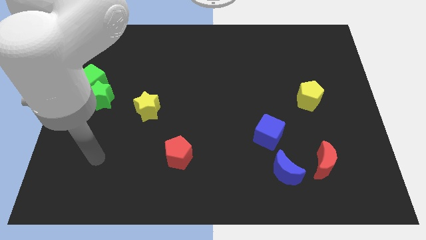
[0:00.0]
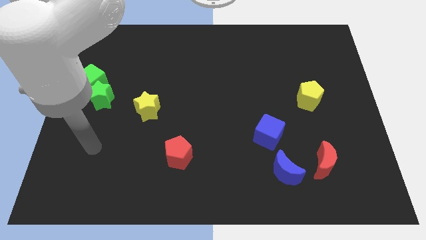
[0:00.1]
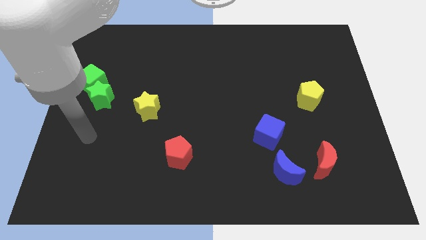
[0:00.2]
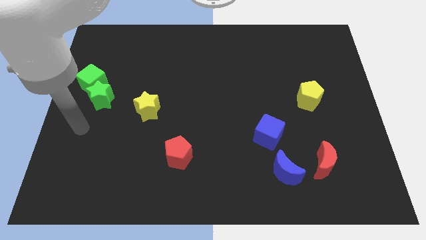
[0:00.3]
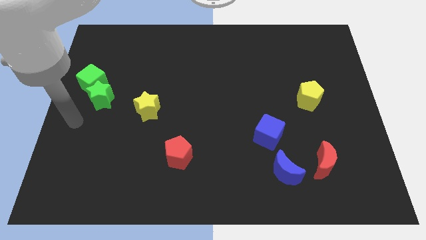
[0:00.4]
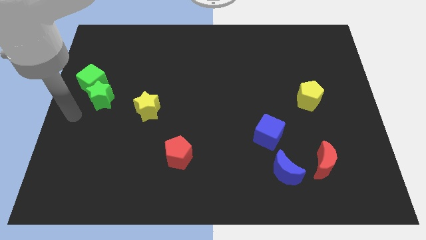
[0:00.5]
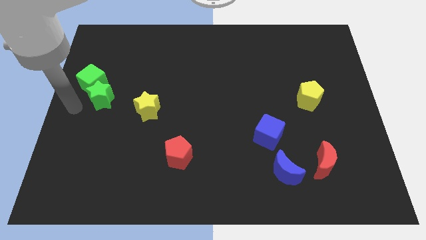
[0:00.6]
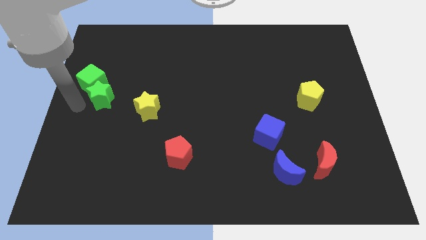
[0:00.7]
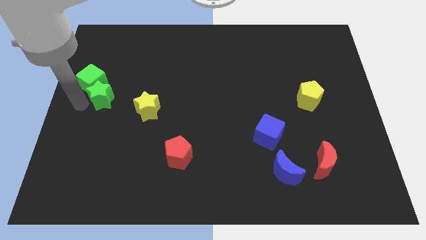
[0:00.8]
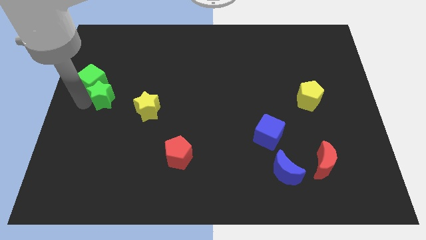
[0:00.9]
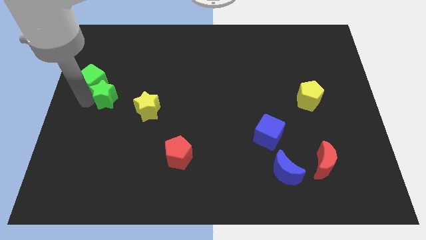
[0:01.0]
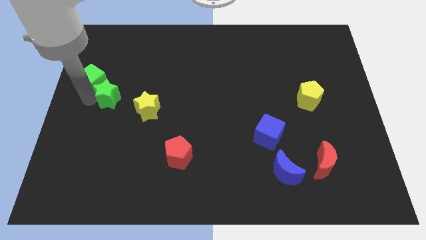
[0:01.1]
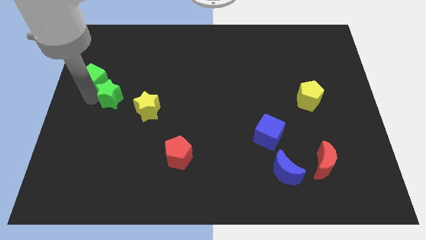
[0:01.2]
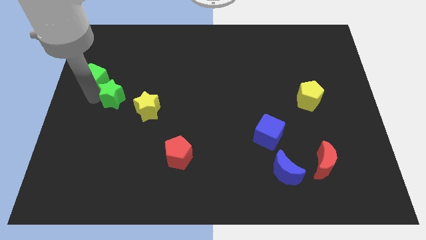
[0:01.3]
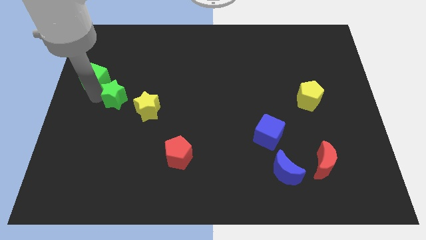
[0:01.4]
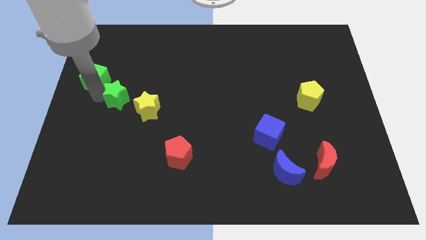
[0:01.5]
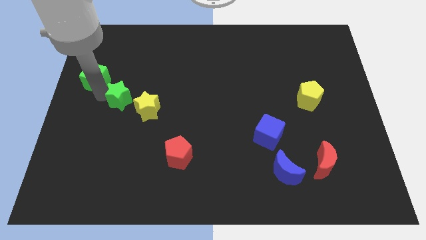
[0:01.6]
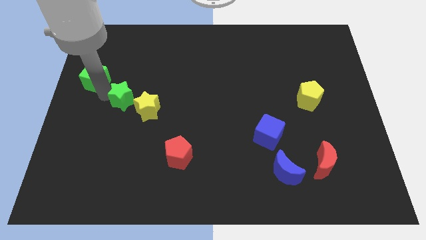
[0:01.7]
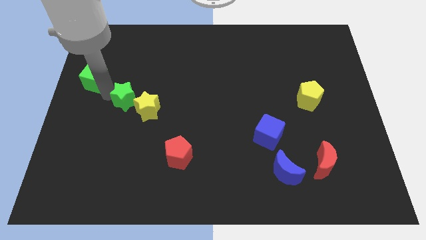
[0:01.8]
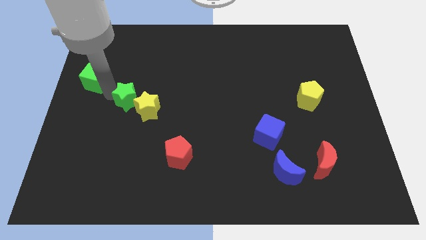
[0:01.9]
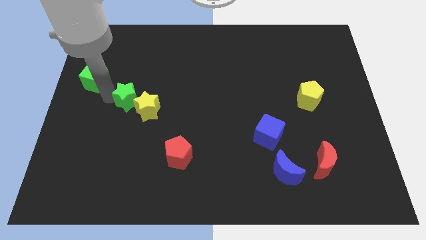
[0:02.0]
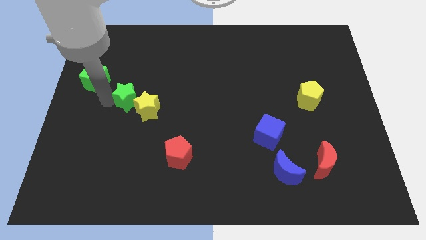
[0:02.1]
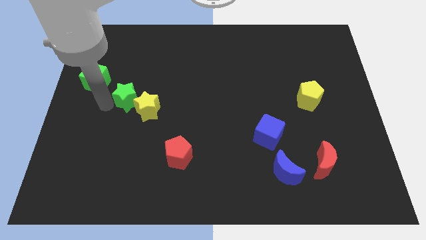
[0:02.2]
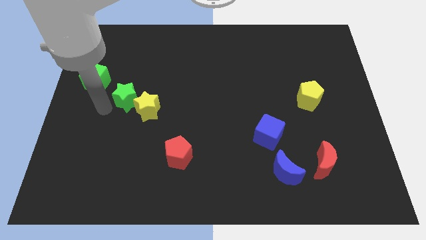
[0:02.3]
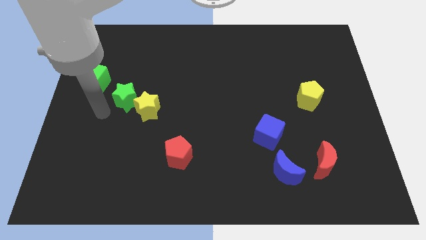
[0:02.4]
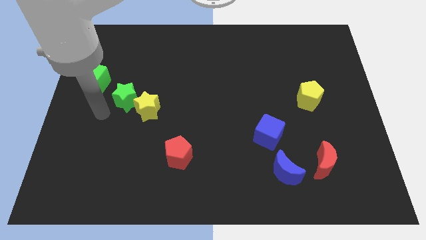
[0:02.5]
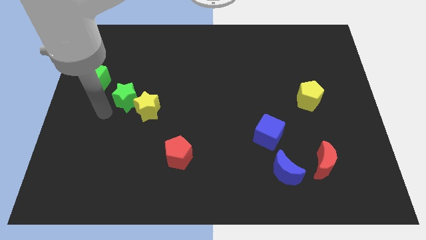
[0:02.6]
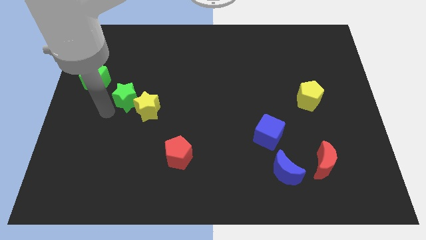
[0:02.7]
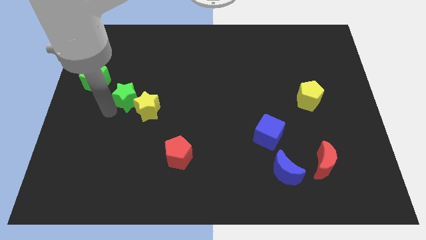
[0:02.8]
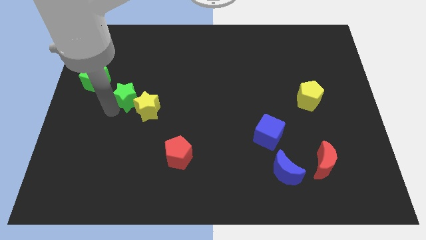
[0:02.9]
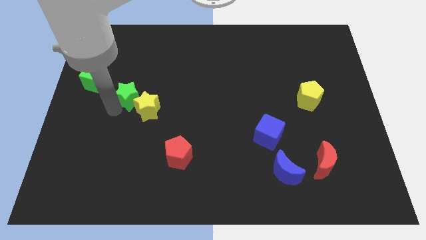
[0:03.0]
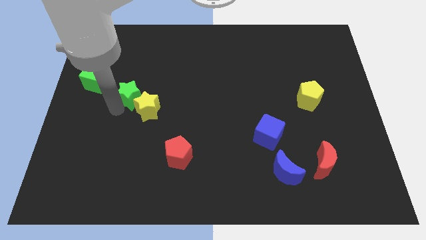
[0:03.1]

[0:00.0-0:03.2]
slightly push the green star right

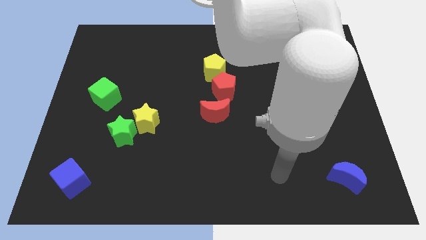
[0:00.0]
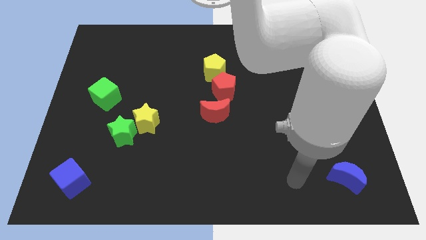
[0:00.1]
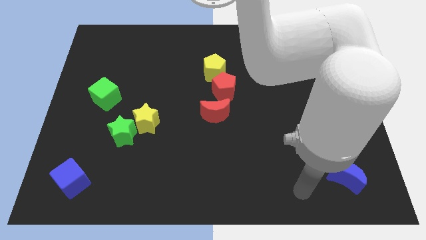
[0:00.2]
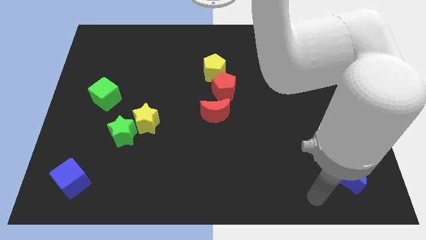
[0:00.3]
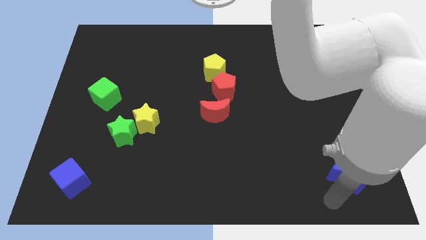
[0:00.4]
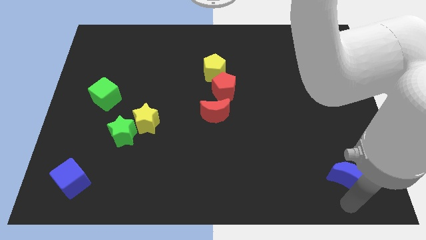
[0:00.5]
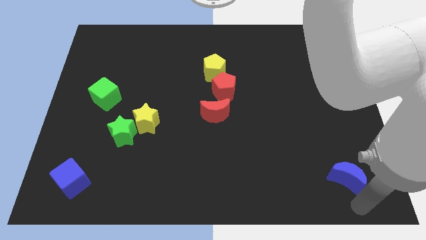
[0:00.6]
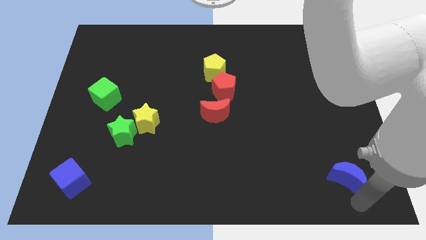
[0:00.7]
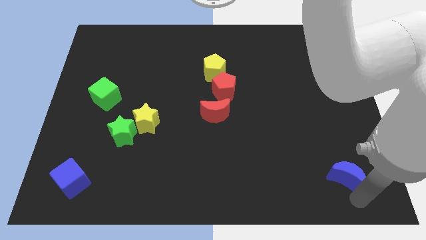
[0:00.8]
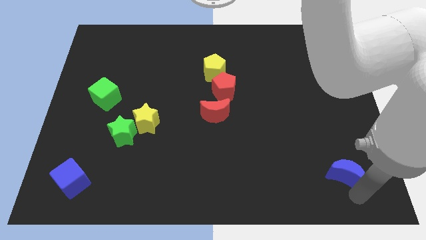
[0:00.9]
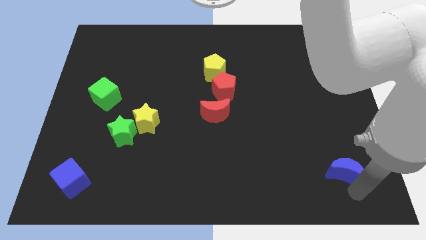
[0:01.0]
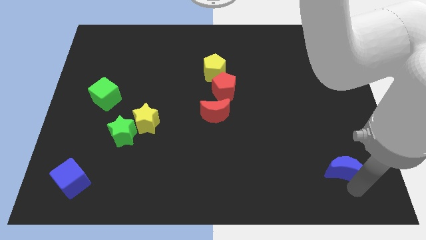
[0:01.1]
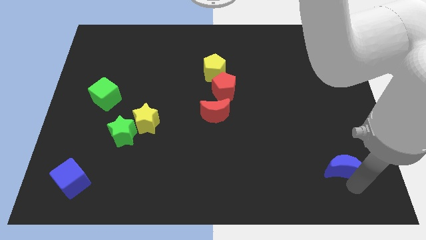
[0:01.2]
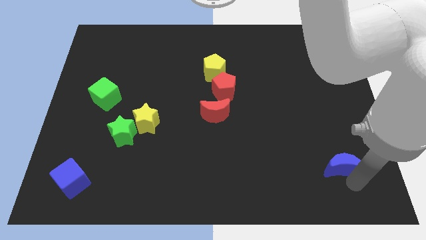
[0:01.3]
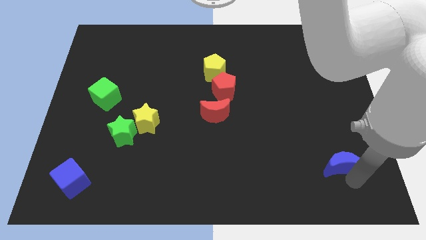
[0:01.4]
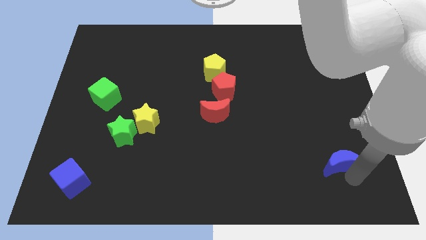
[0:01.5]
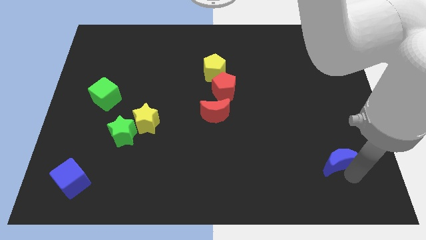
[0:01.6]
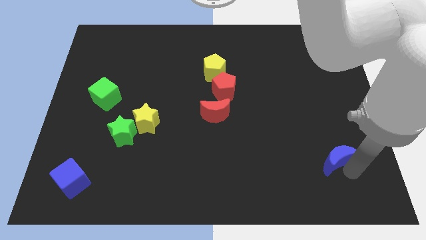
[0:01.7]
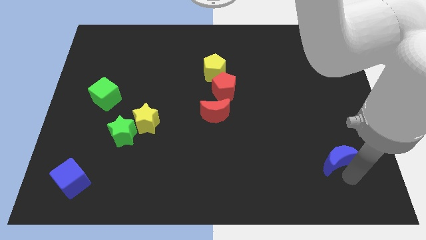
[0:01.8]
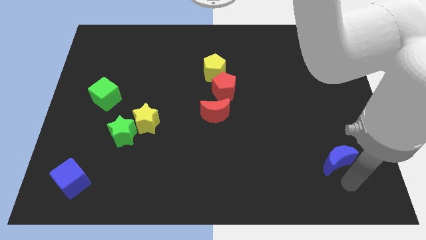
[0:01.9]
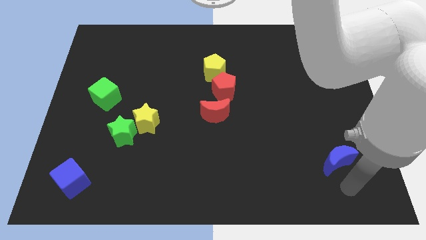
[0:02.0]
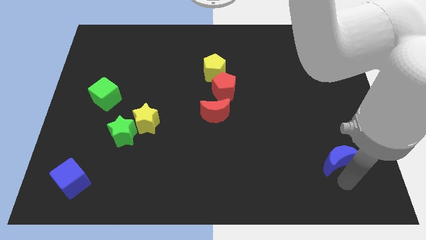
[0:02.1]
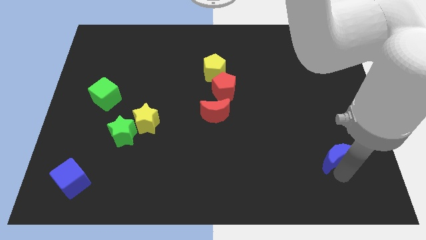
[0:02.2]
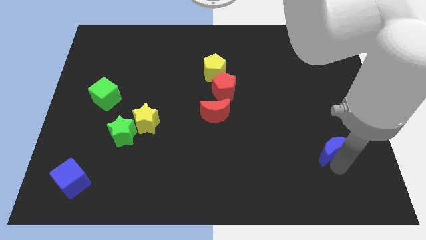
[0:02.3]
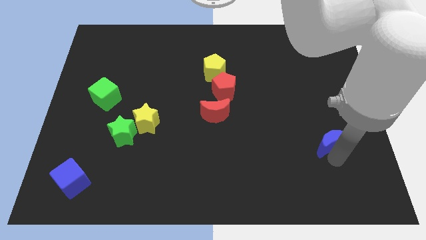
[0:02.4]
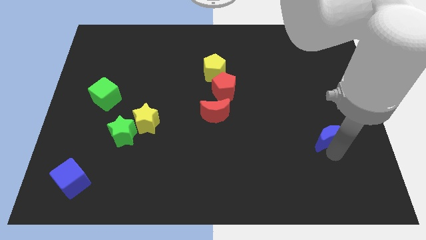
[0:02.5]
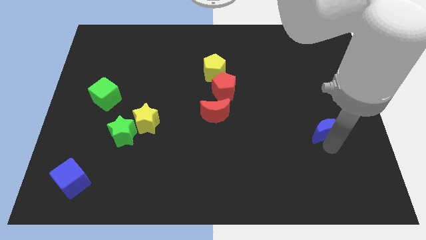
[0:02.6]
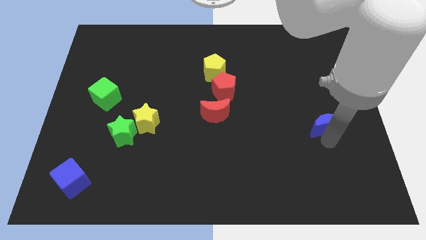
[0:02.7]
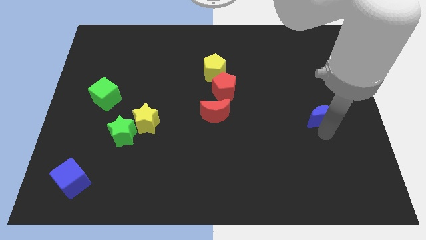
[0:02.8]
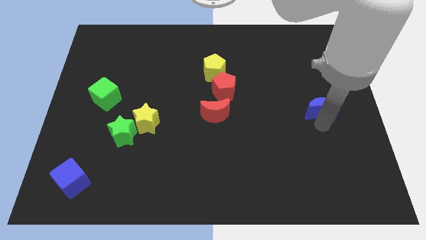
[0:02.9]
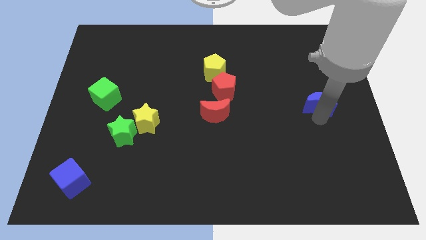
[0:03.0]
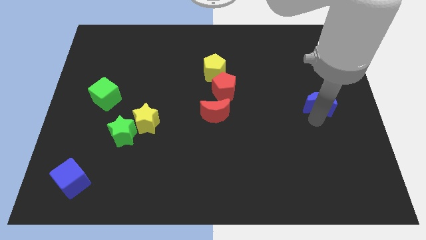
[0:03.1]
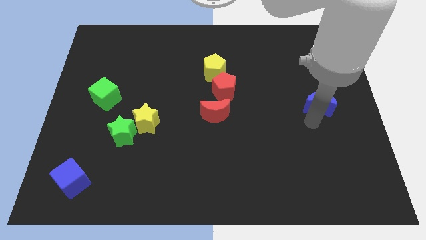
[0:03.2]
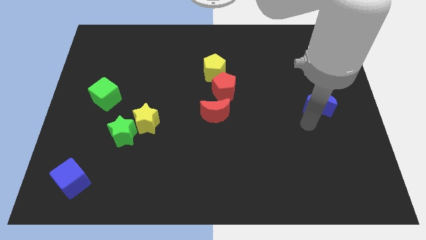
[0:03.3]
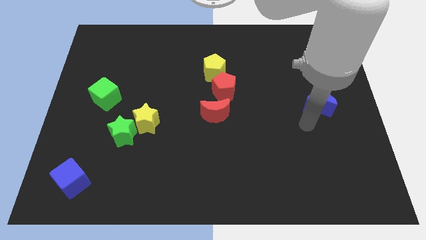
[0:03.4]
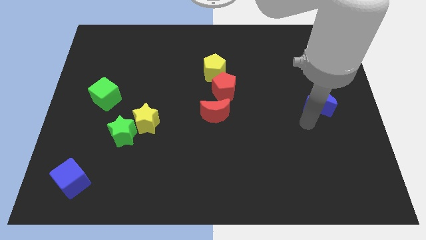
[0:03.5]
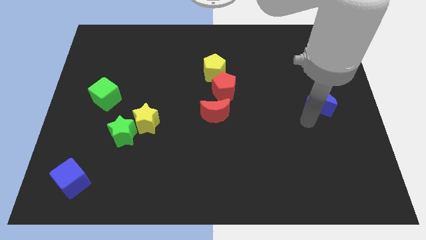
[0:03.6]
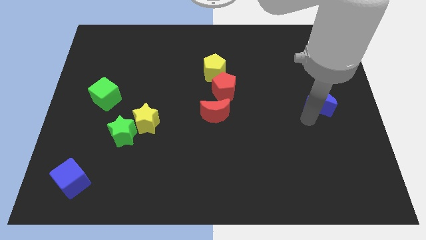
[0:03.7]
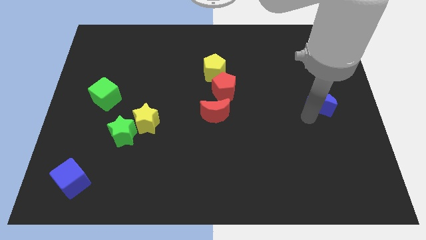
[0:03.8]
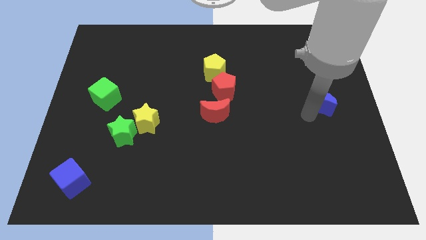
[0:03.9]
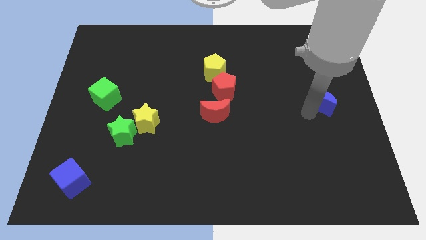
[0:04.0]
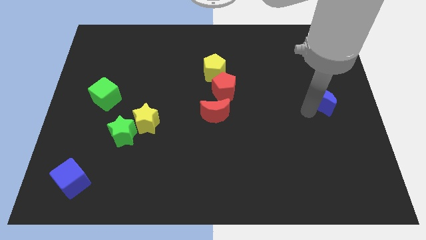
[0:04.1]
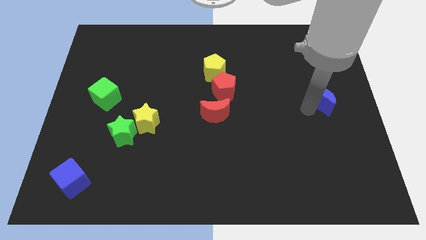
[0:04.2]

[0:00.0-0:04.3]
push the blue moon upwards

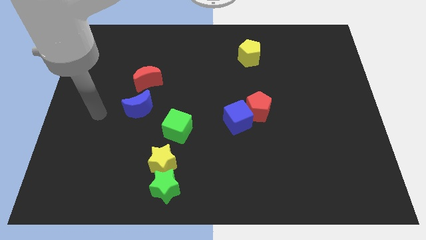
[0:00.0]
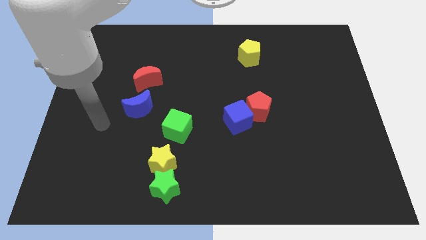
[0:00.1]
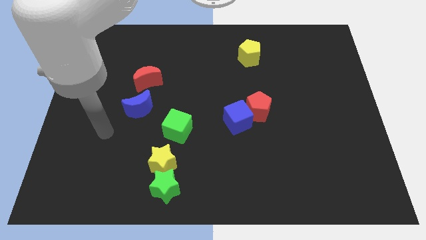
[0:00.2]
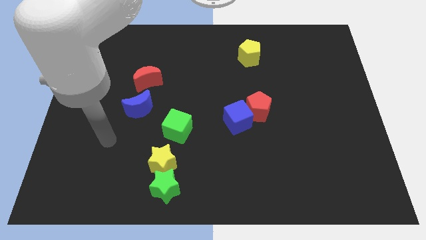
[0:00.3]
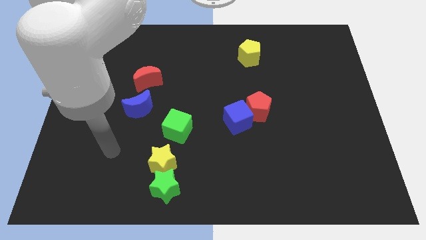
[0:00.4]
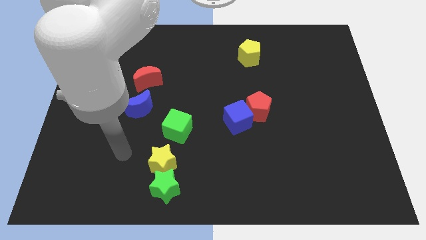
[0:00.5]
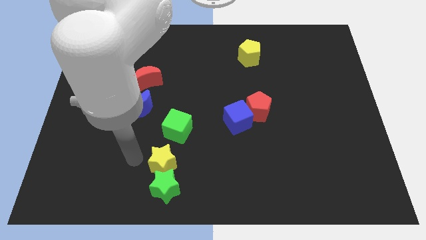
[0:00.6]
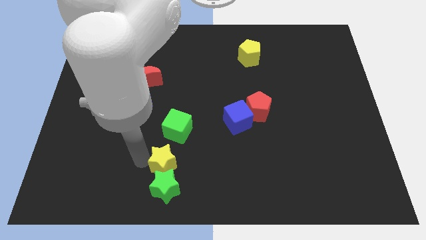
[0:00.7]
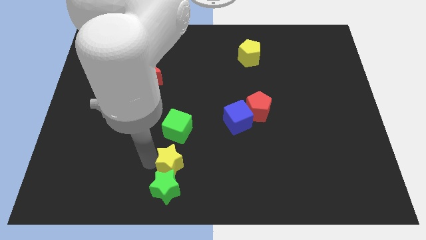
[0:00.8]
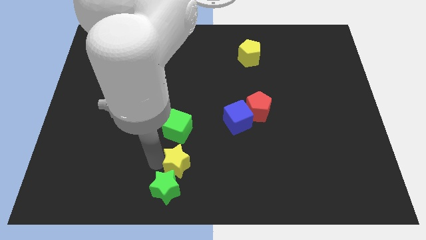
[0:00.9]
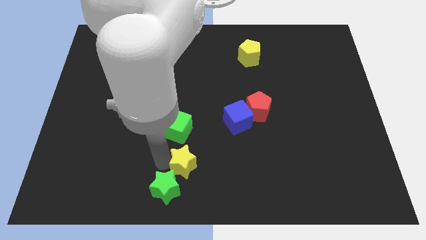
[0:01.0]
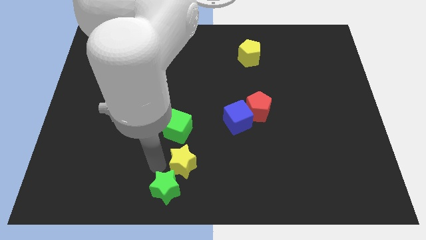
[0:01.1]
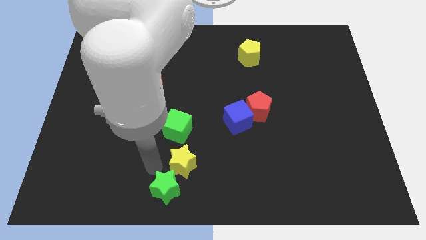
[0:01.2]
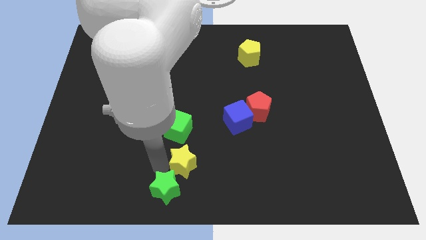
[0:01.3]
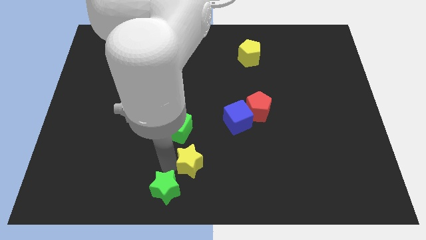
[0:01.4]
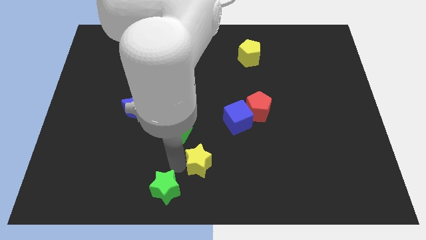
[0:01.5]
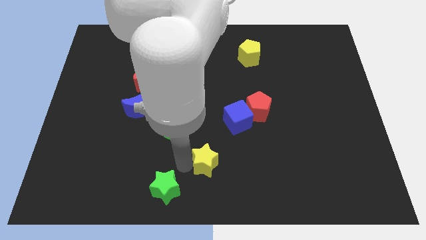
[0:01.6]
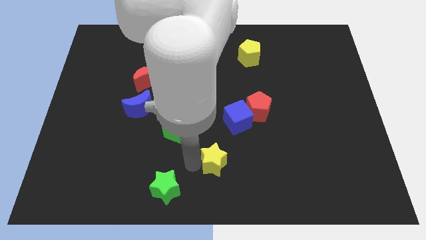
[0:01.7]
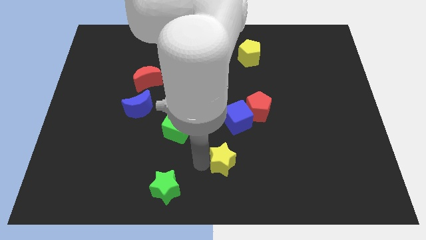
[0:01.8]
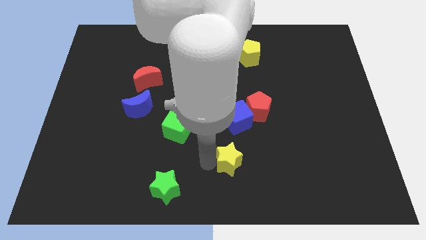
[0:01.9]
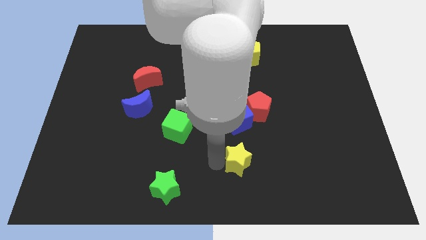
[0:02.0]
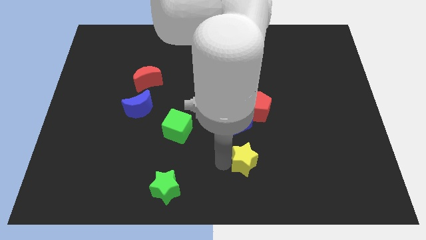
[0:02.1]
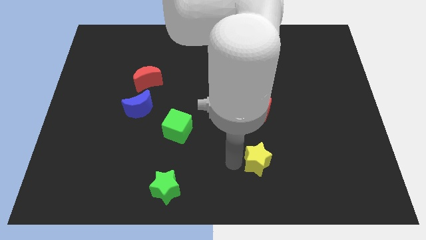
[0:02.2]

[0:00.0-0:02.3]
push the yellow star to the right
